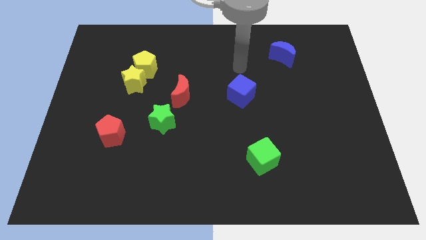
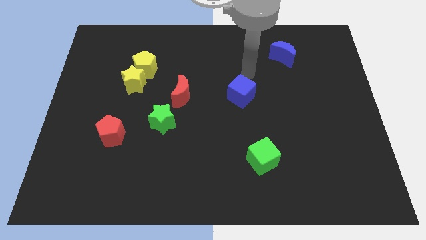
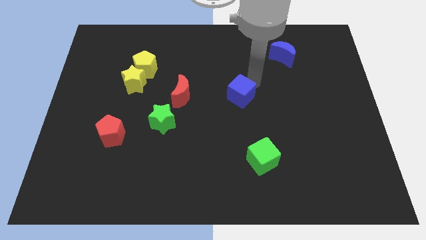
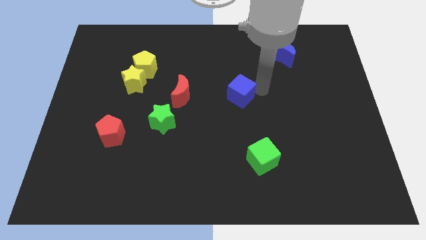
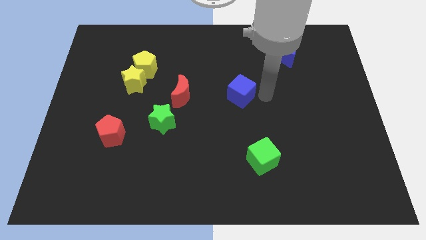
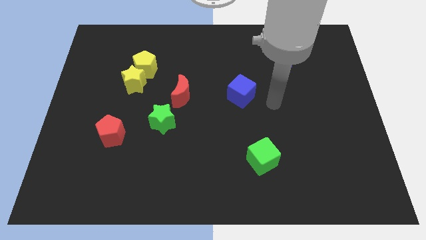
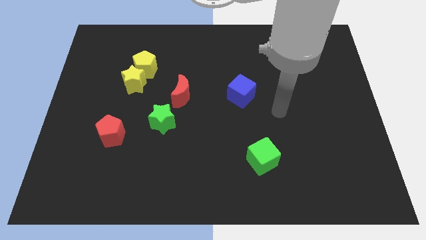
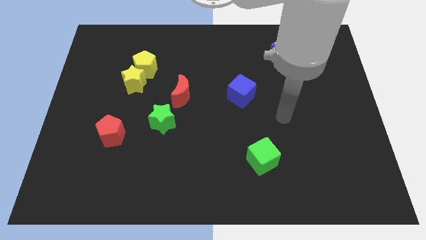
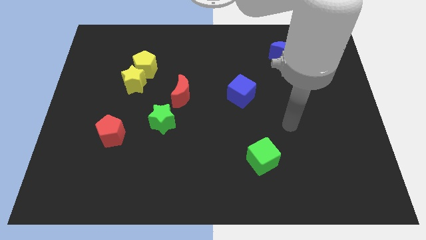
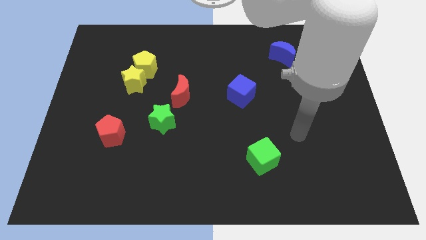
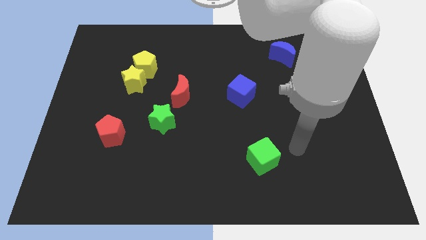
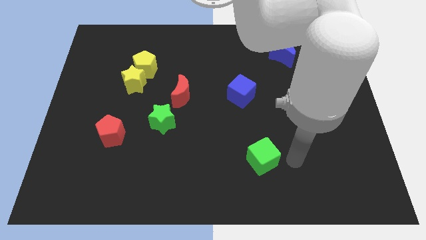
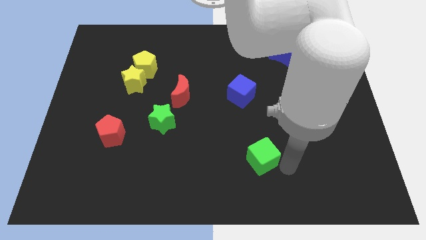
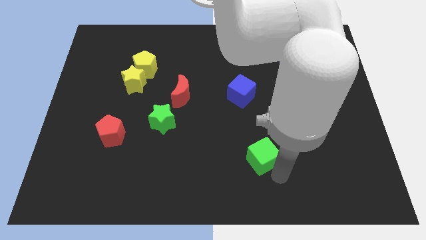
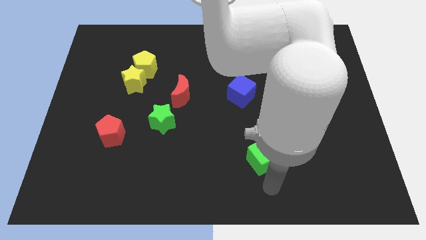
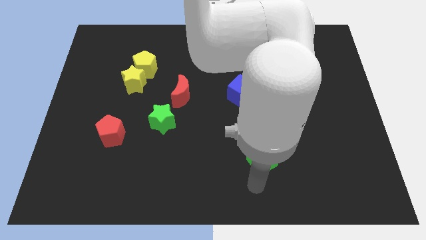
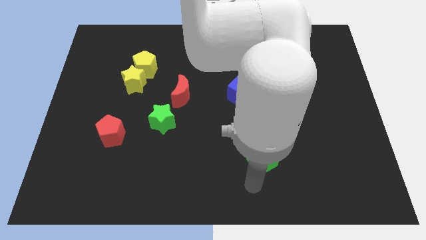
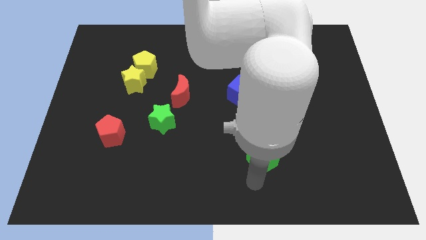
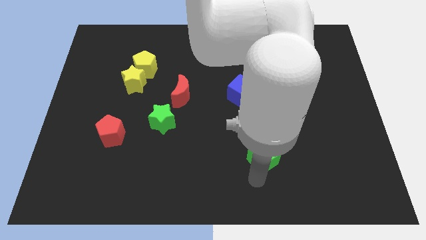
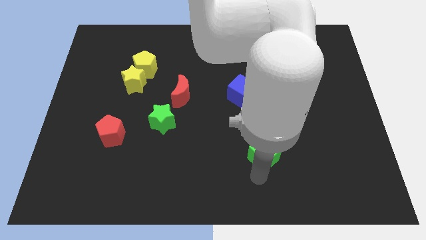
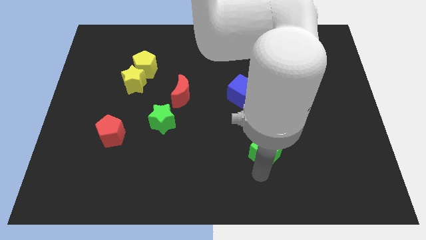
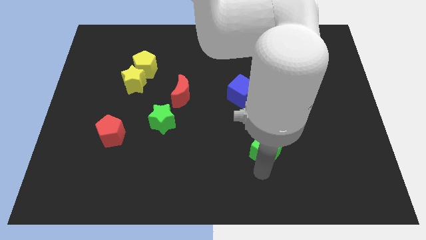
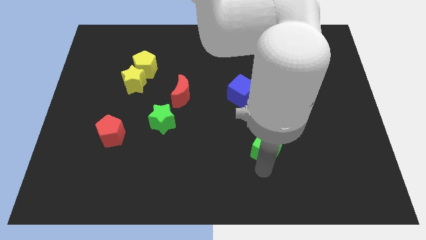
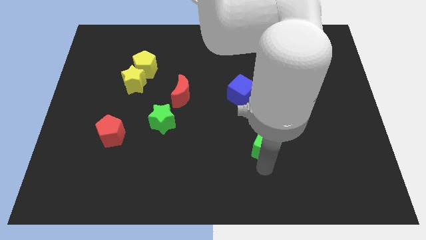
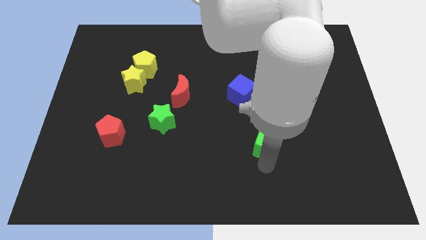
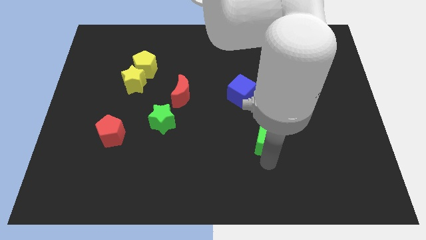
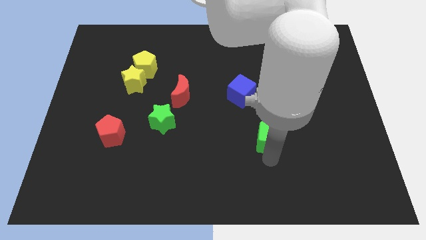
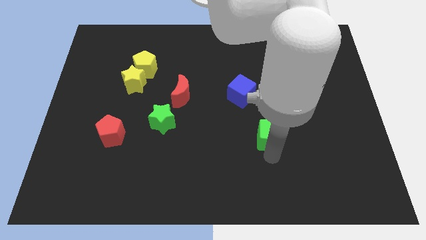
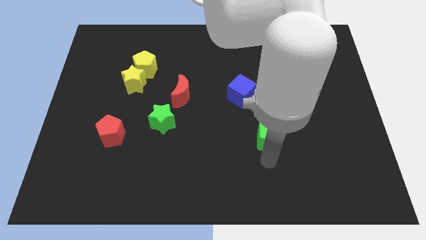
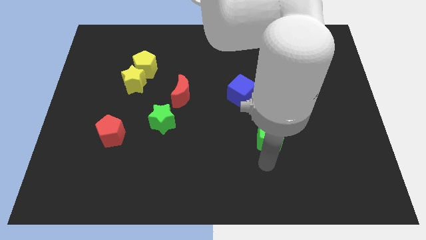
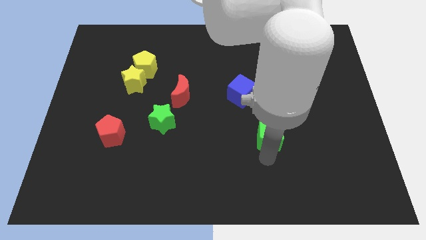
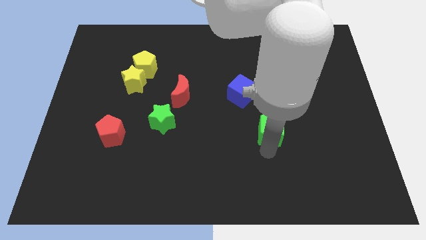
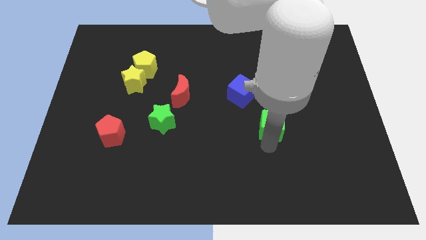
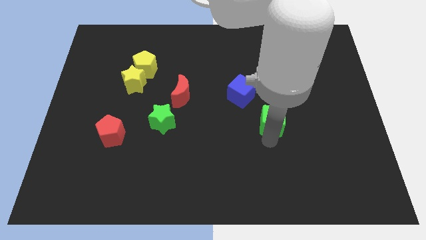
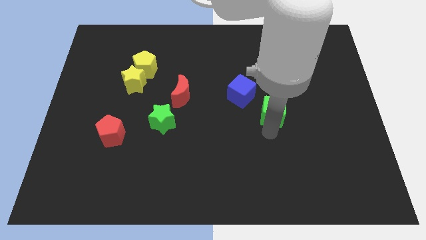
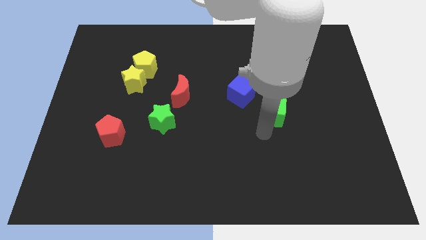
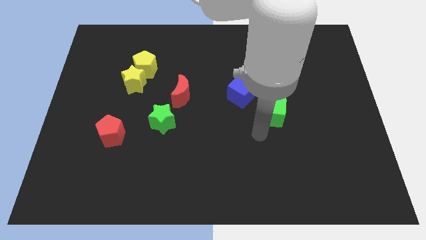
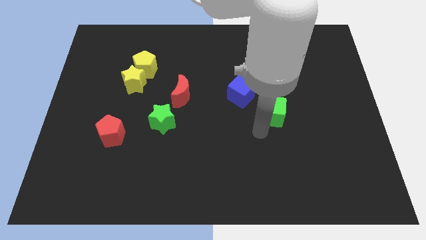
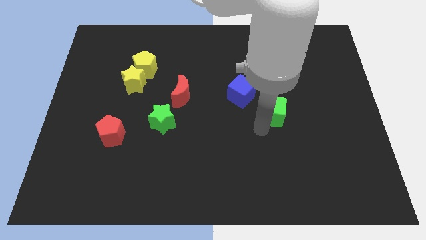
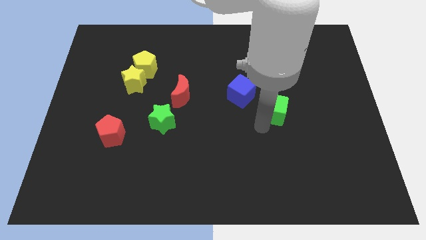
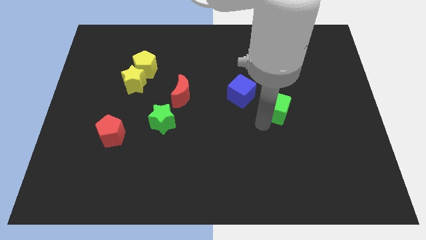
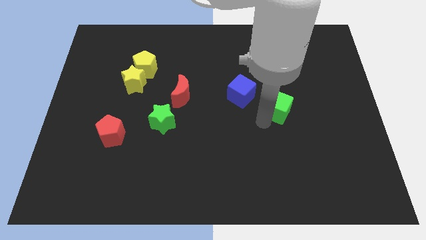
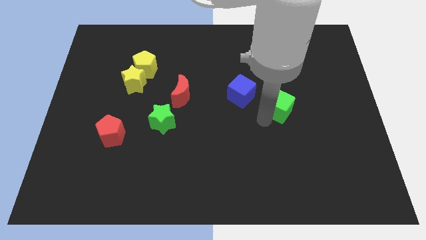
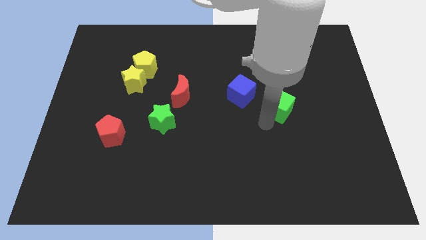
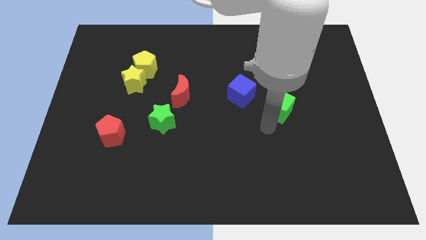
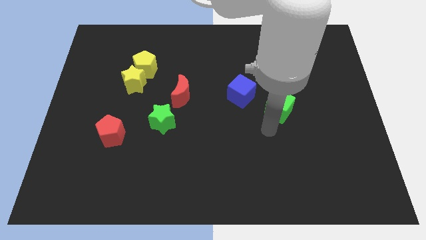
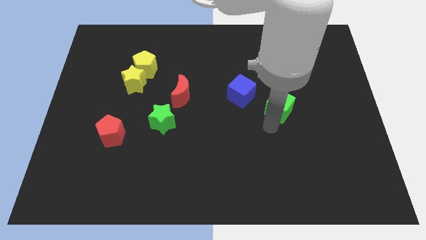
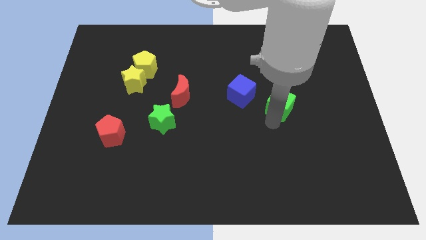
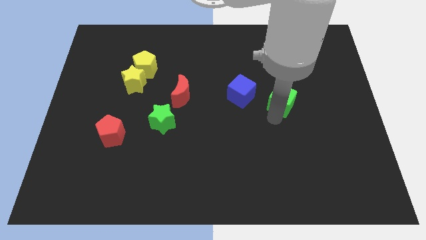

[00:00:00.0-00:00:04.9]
slide the green cube below the blue moon

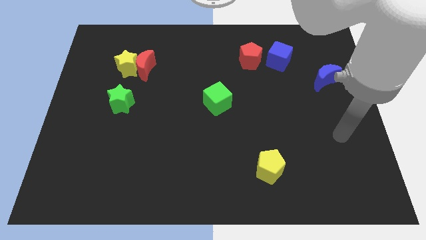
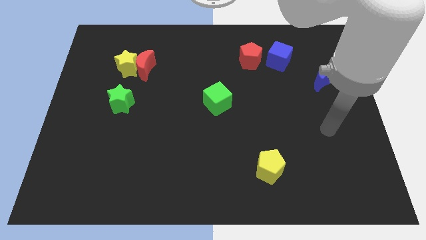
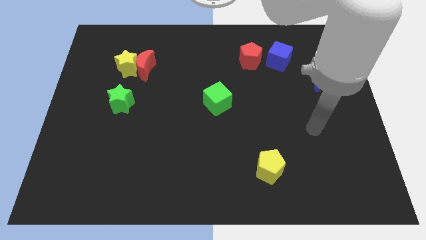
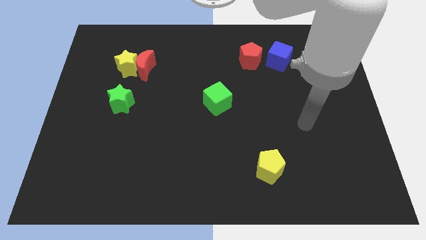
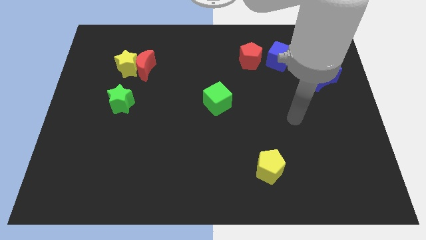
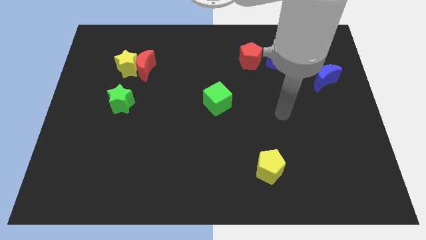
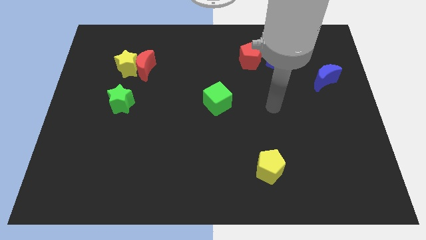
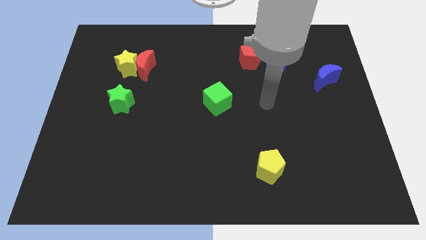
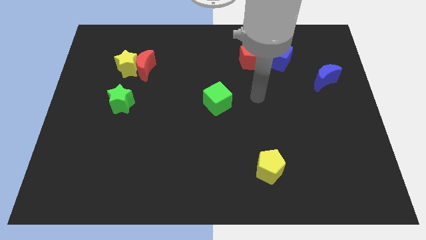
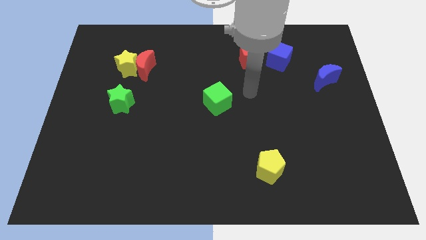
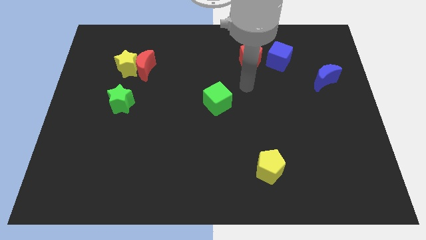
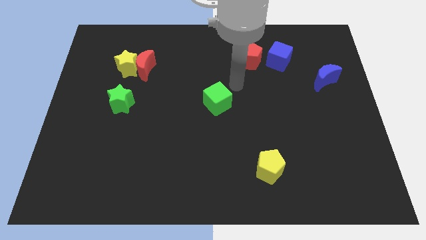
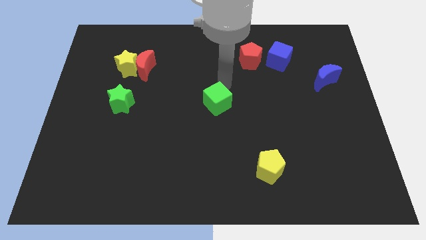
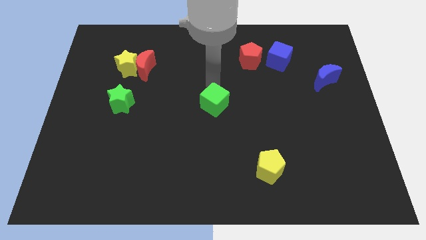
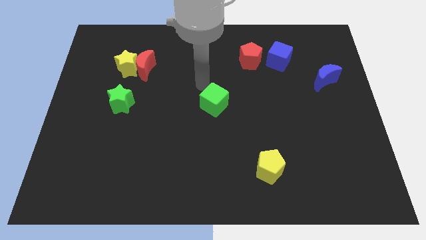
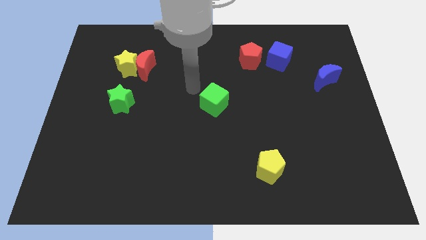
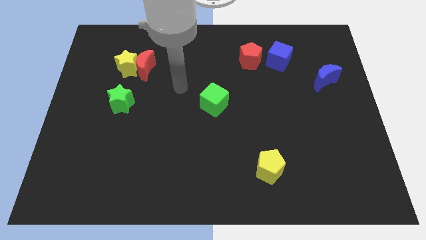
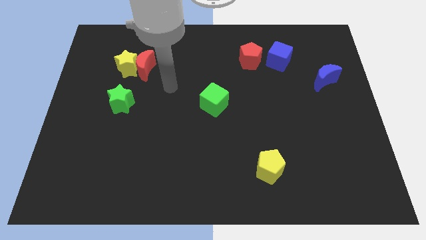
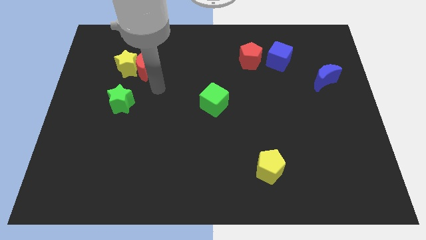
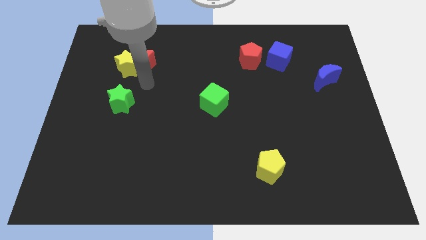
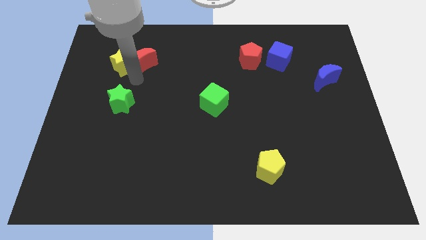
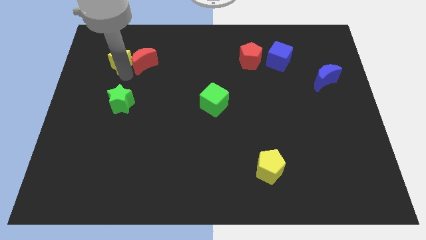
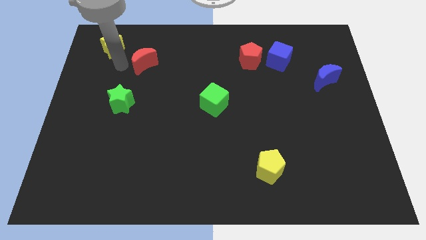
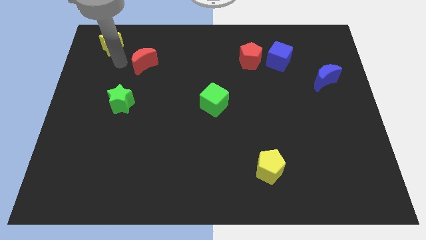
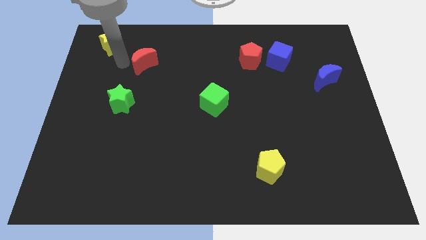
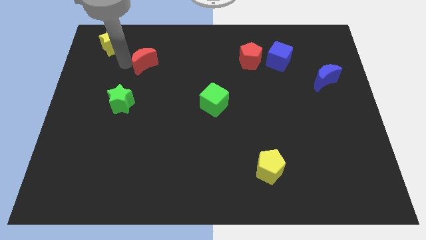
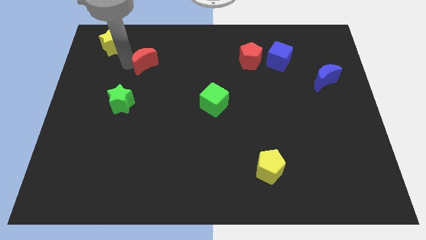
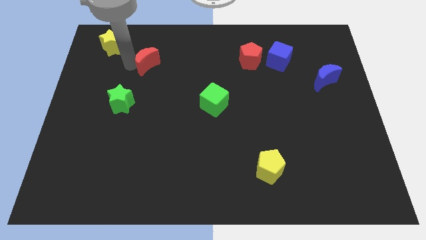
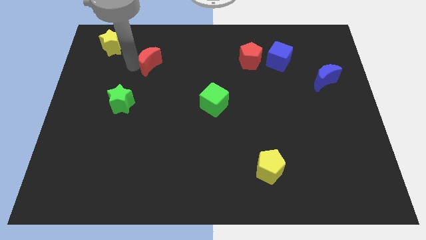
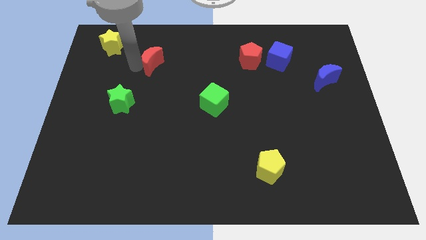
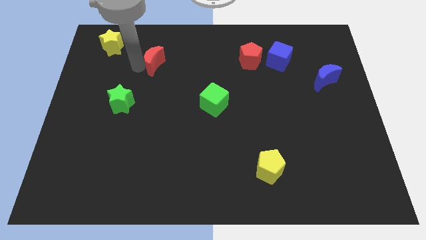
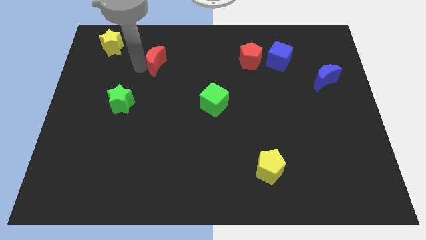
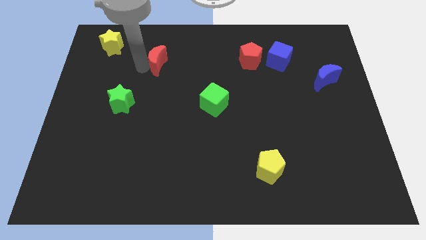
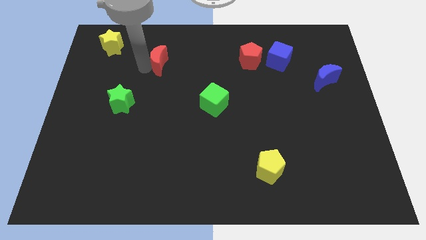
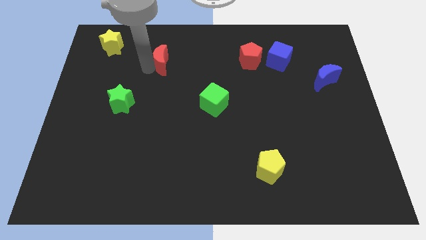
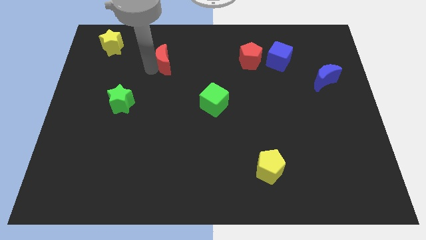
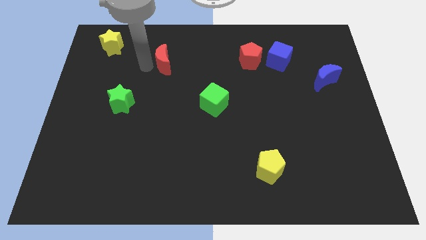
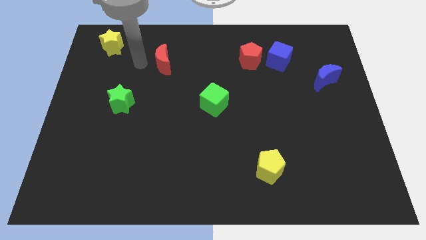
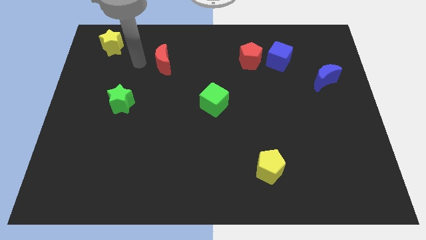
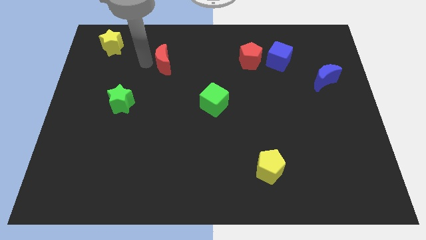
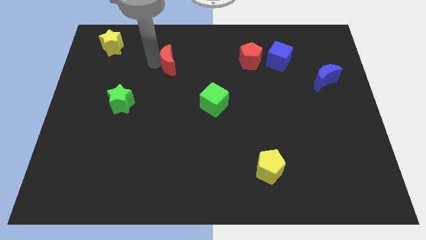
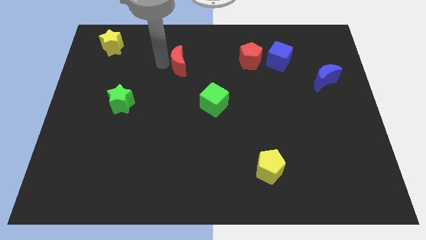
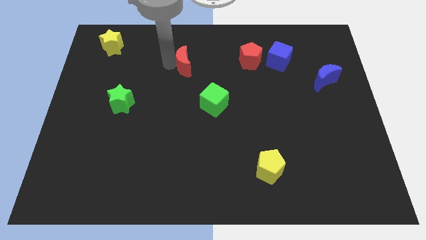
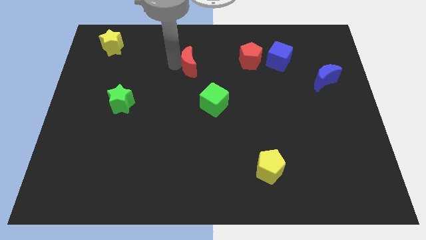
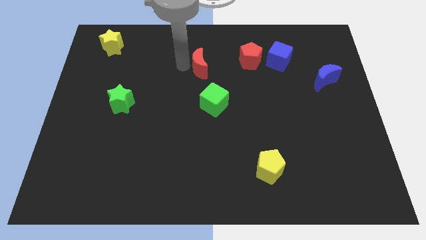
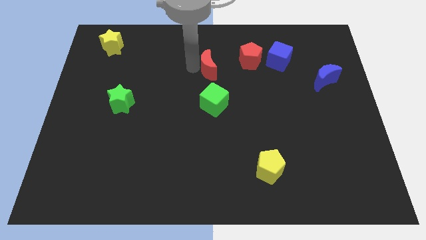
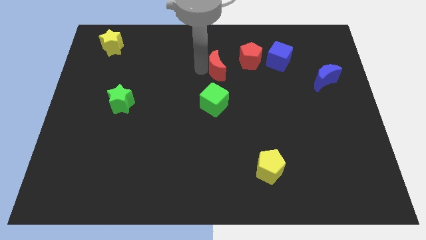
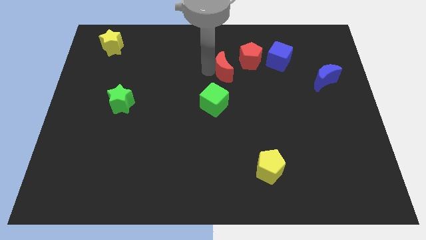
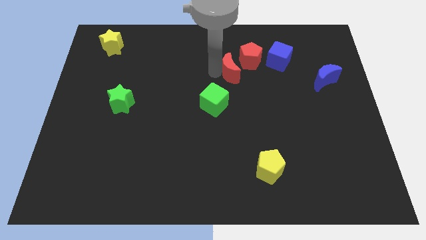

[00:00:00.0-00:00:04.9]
move the red moon left of the blue cube
